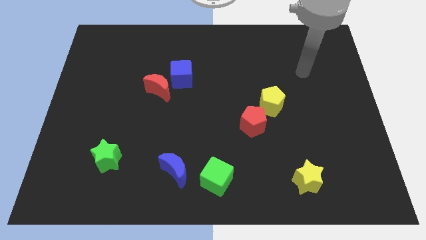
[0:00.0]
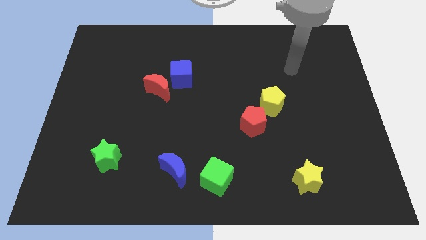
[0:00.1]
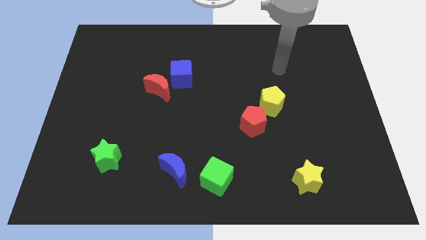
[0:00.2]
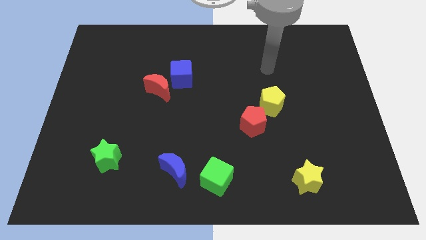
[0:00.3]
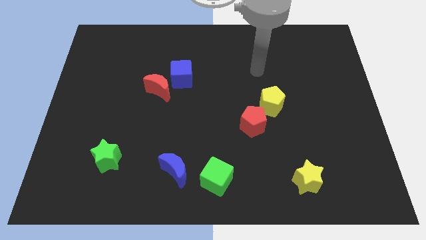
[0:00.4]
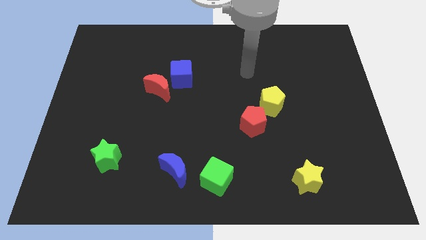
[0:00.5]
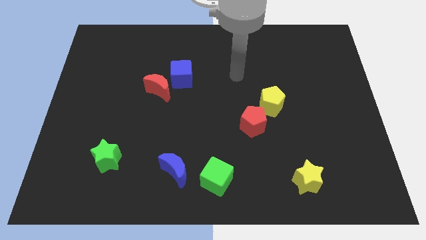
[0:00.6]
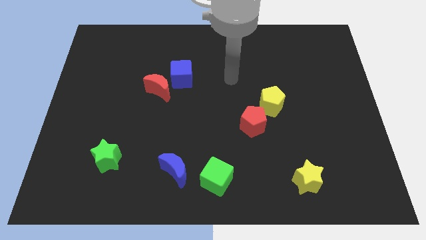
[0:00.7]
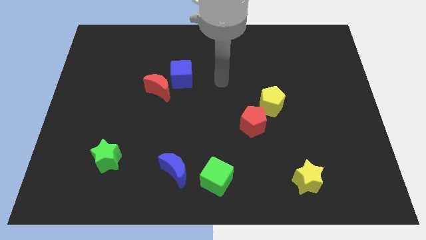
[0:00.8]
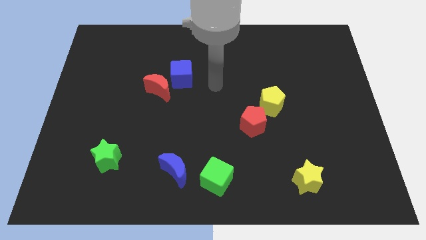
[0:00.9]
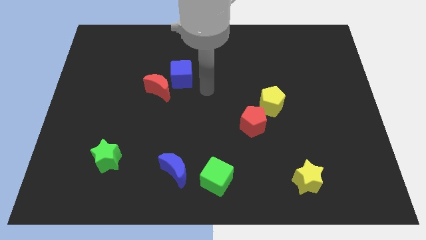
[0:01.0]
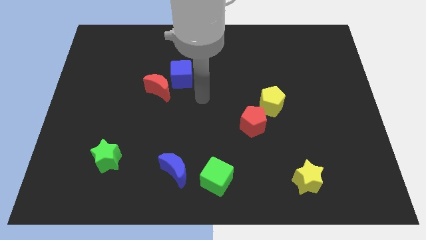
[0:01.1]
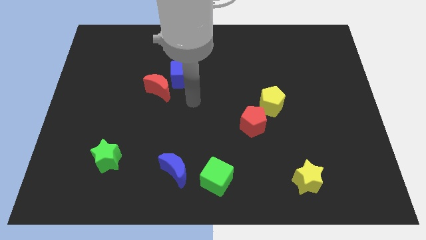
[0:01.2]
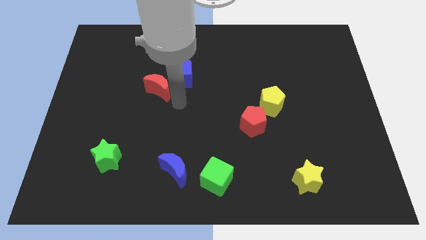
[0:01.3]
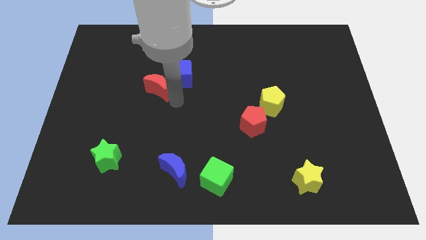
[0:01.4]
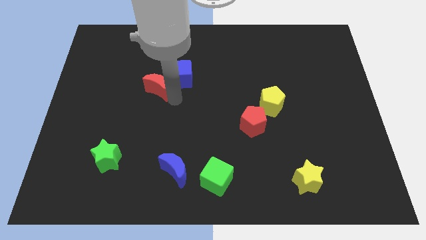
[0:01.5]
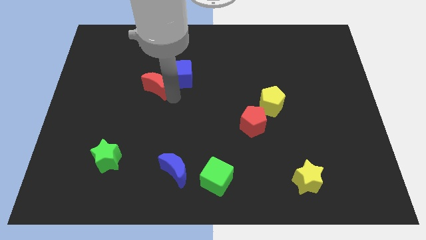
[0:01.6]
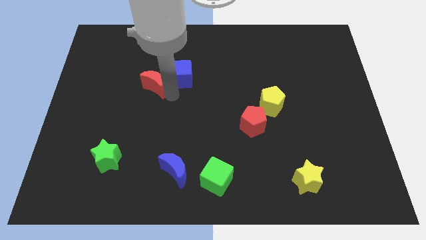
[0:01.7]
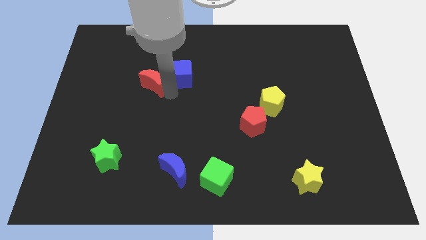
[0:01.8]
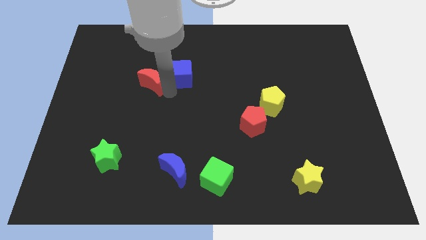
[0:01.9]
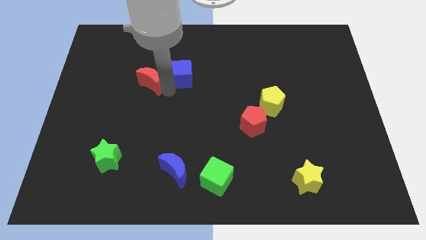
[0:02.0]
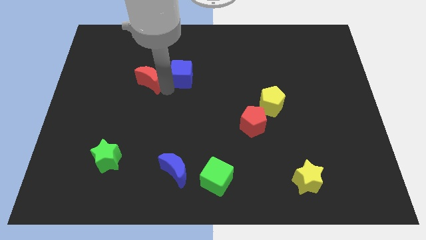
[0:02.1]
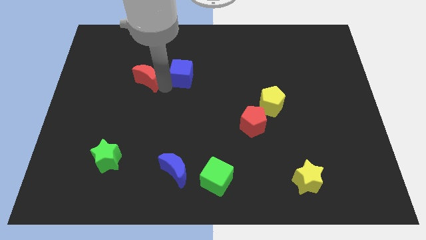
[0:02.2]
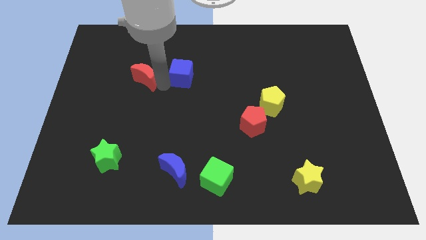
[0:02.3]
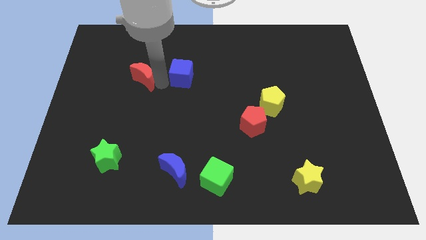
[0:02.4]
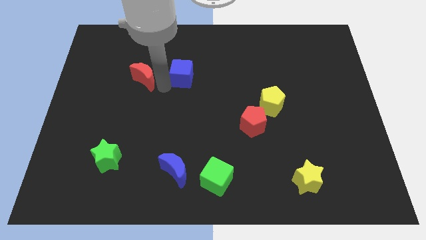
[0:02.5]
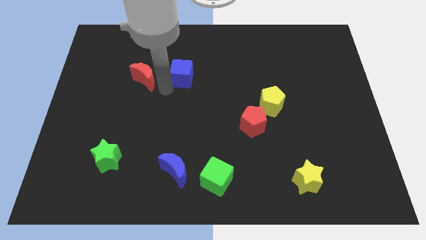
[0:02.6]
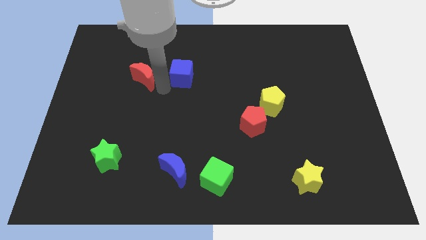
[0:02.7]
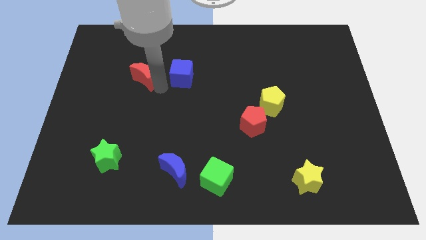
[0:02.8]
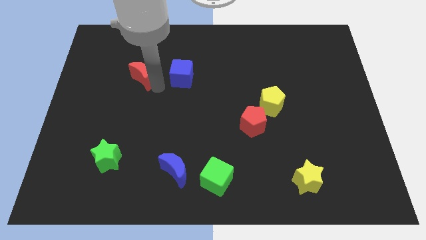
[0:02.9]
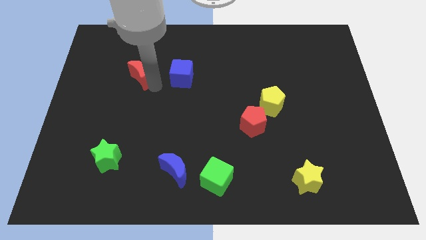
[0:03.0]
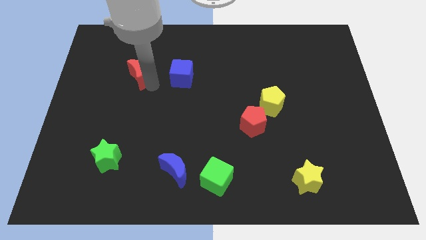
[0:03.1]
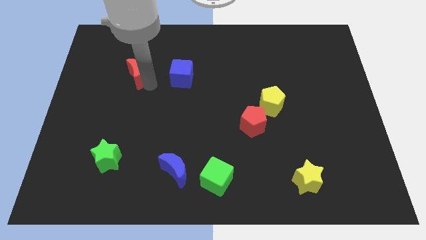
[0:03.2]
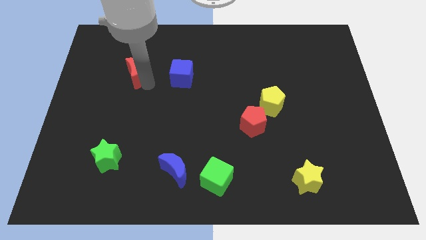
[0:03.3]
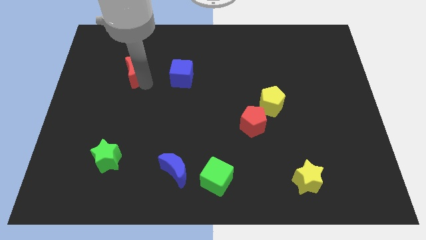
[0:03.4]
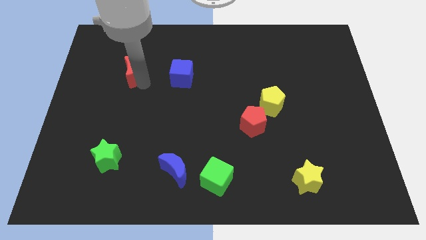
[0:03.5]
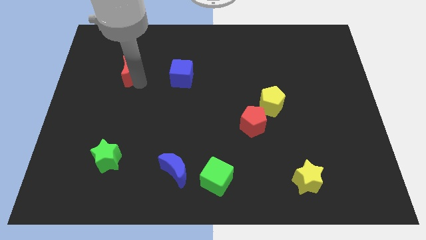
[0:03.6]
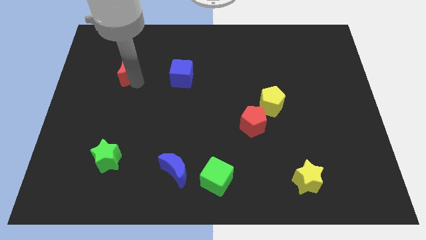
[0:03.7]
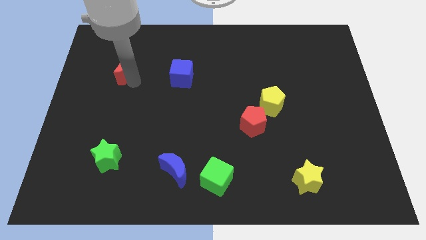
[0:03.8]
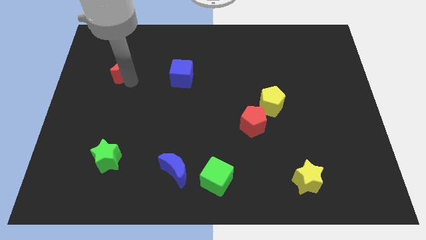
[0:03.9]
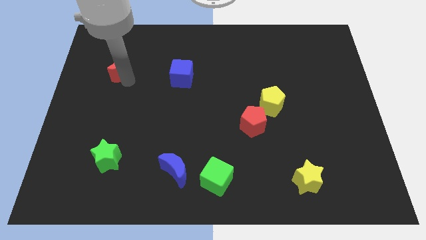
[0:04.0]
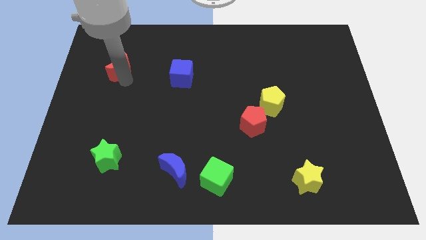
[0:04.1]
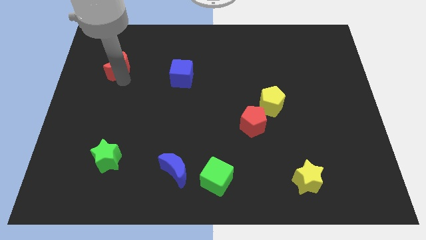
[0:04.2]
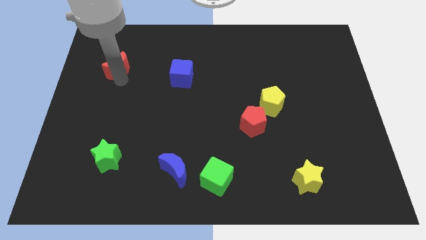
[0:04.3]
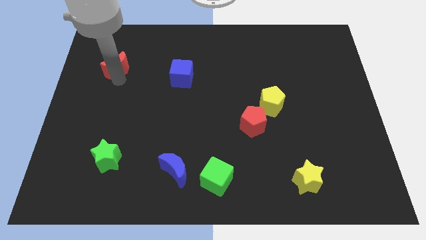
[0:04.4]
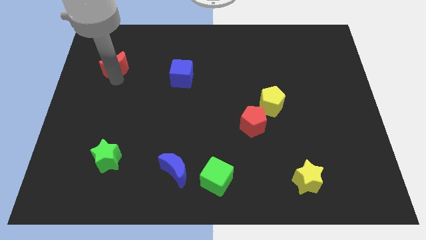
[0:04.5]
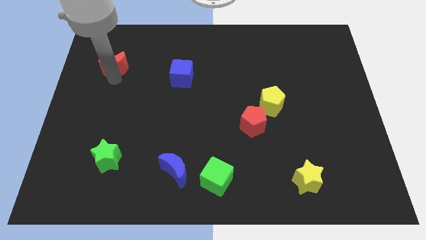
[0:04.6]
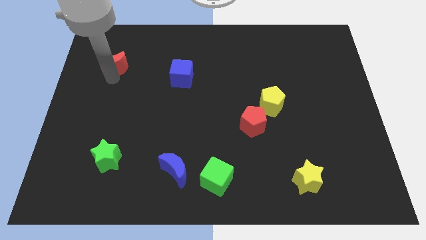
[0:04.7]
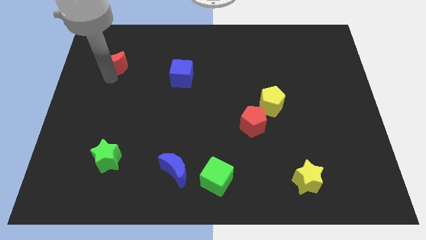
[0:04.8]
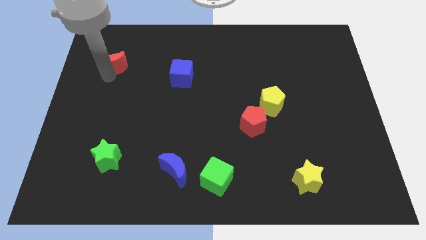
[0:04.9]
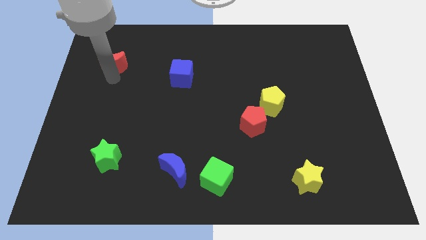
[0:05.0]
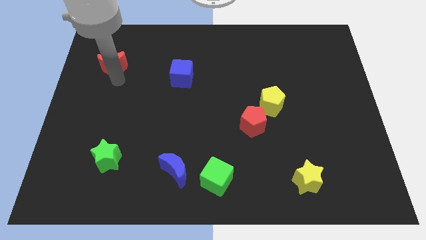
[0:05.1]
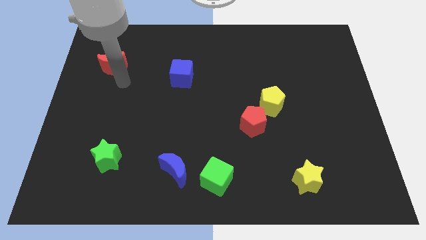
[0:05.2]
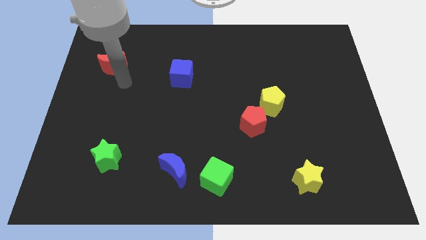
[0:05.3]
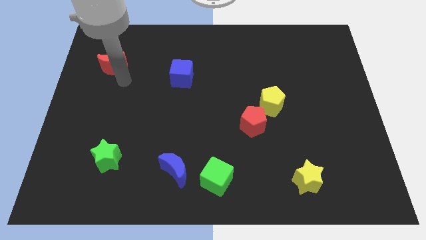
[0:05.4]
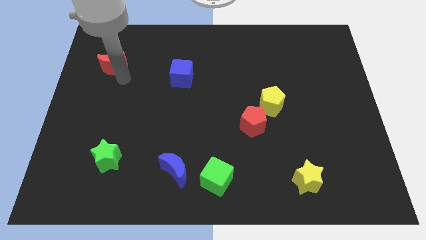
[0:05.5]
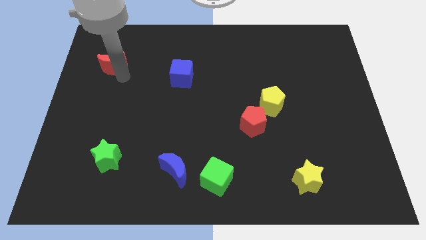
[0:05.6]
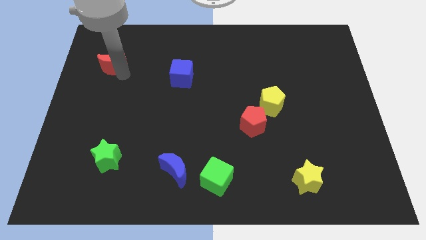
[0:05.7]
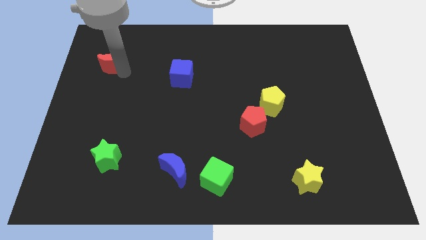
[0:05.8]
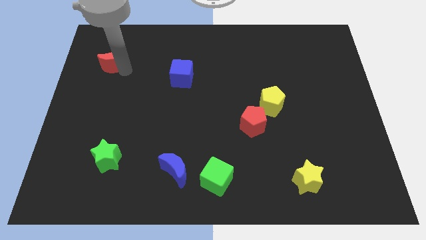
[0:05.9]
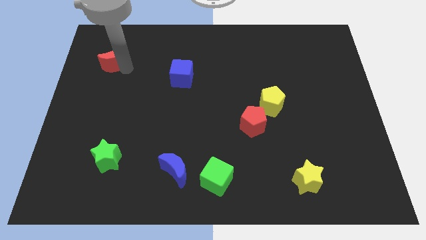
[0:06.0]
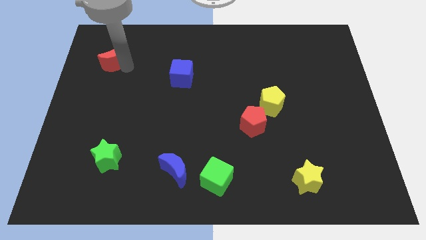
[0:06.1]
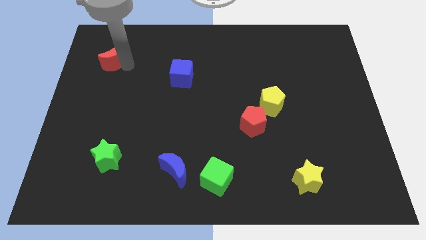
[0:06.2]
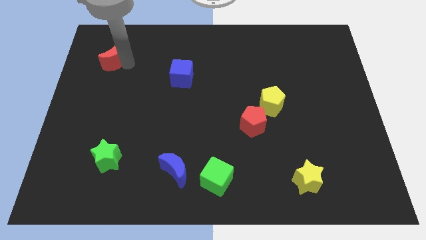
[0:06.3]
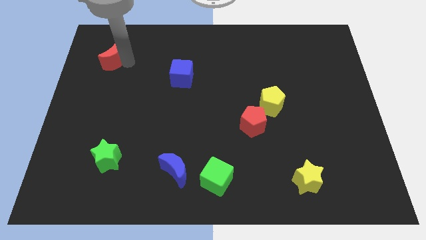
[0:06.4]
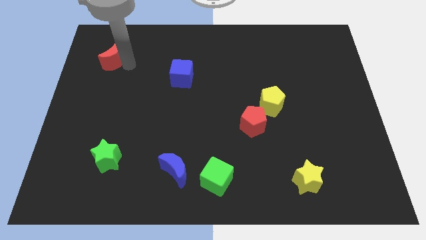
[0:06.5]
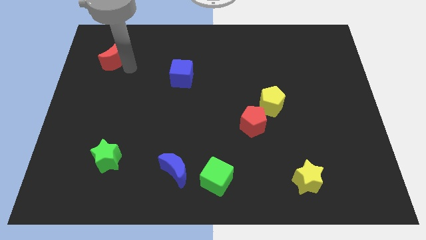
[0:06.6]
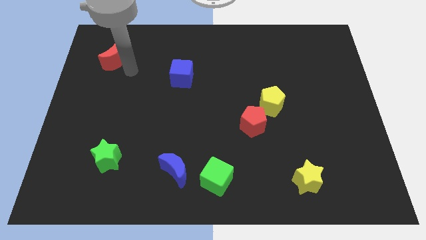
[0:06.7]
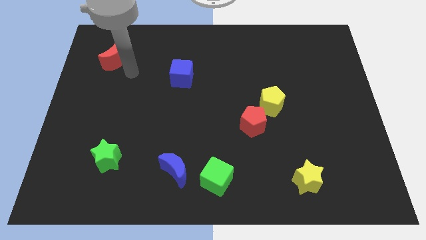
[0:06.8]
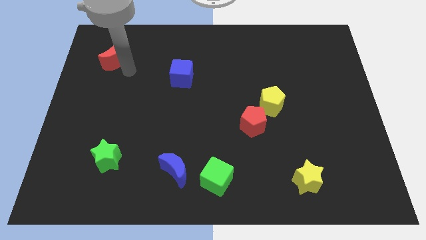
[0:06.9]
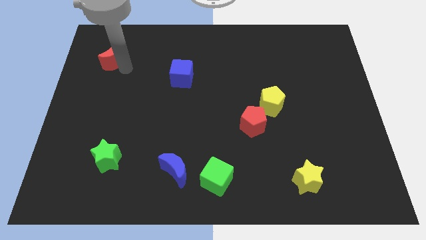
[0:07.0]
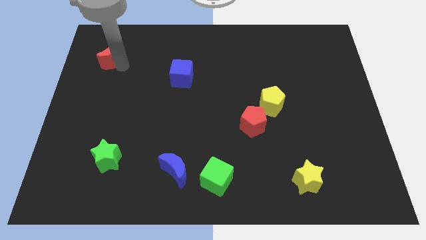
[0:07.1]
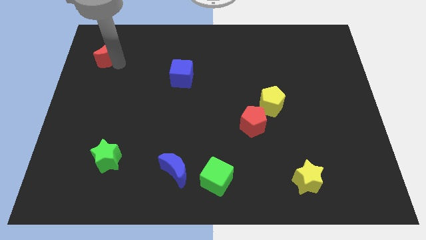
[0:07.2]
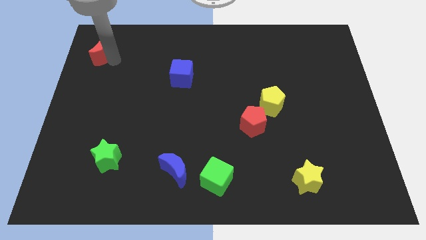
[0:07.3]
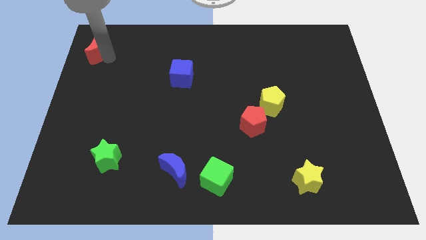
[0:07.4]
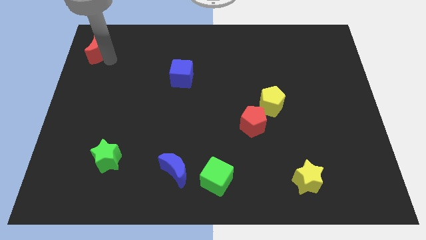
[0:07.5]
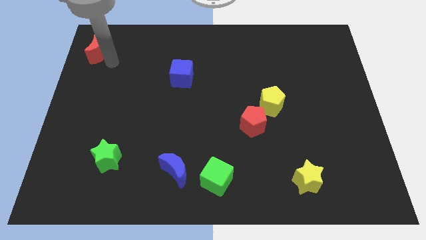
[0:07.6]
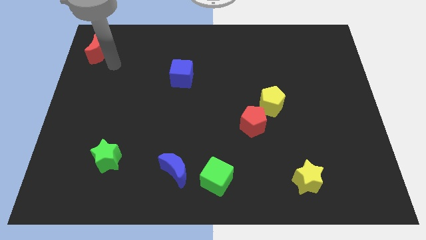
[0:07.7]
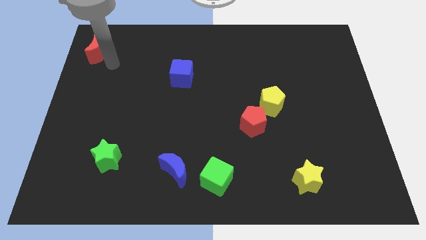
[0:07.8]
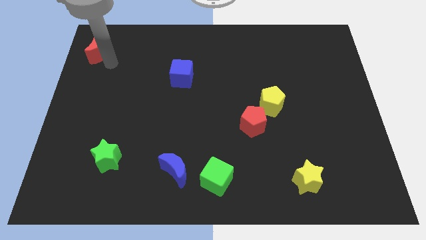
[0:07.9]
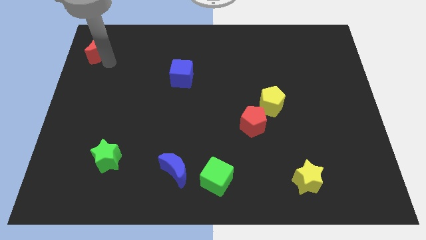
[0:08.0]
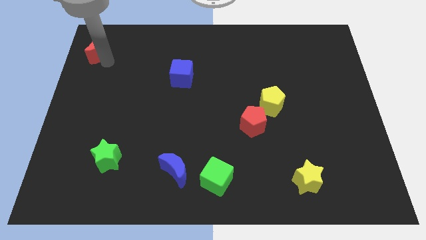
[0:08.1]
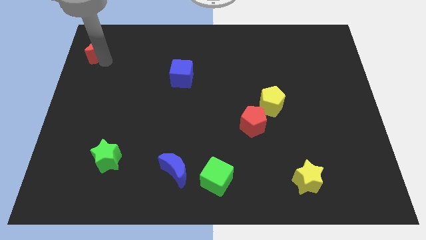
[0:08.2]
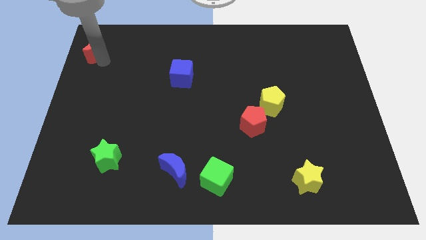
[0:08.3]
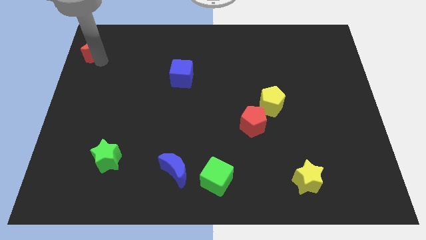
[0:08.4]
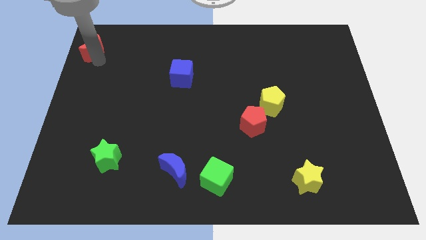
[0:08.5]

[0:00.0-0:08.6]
push the red moon to the top left
